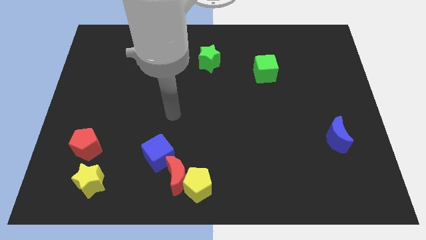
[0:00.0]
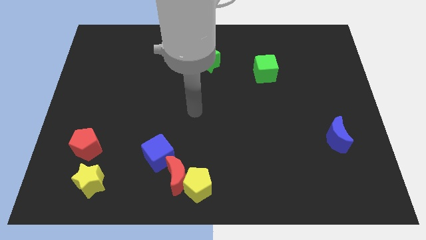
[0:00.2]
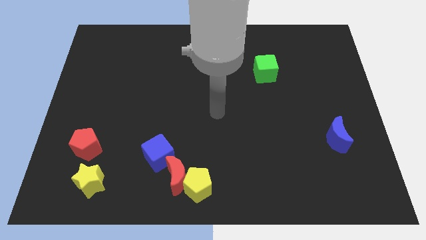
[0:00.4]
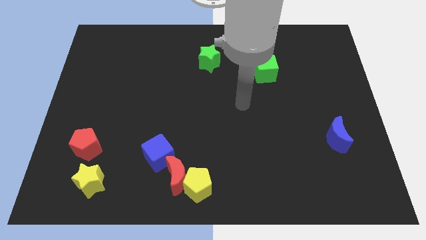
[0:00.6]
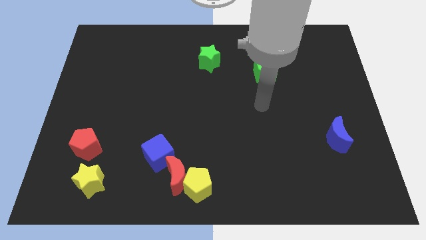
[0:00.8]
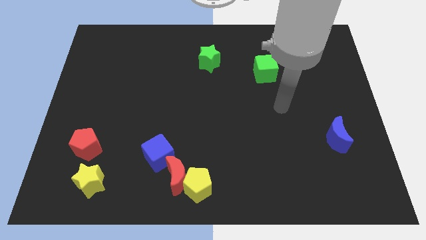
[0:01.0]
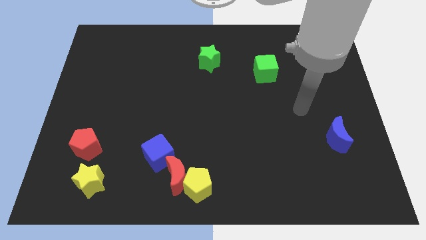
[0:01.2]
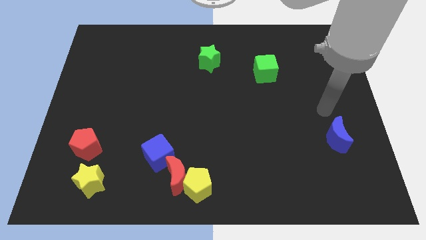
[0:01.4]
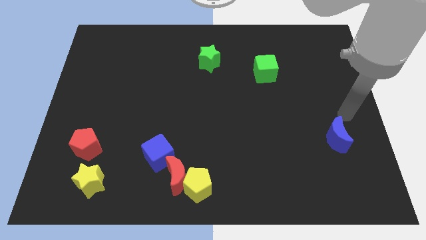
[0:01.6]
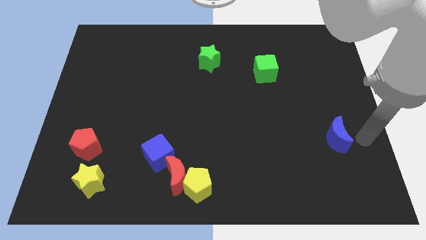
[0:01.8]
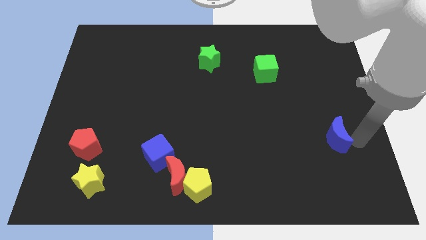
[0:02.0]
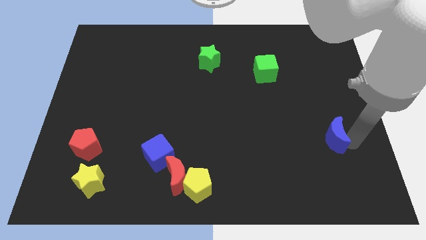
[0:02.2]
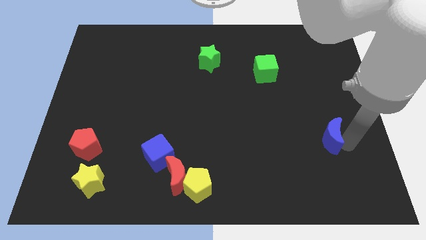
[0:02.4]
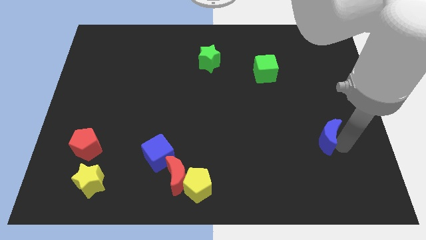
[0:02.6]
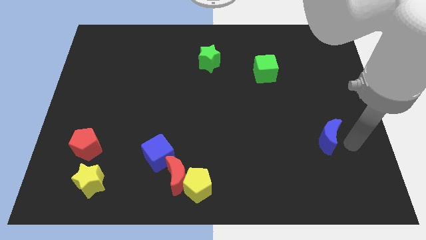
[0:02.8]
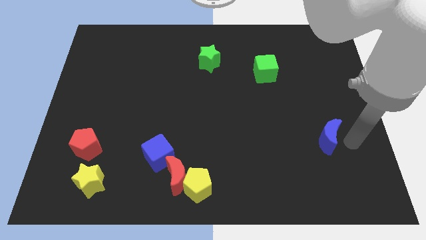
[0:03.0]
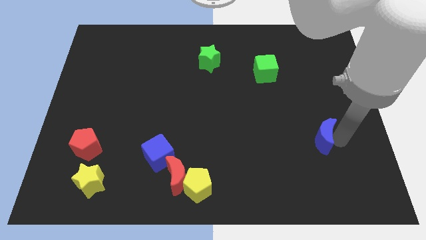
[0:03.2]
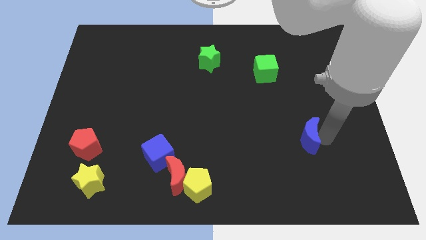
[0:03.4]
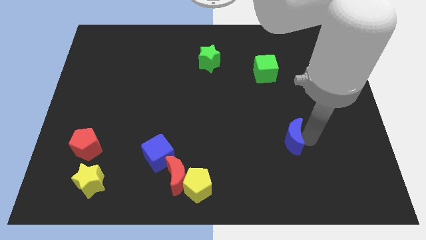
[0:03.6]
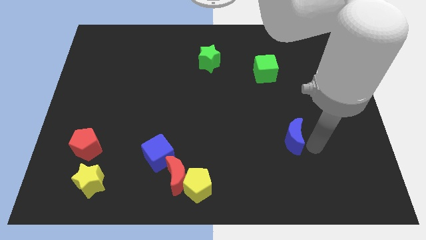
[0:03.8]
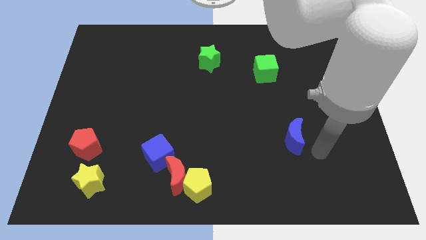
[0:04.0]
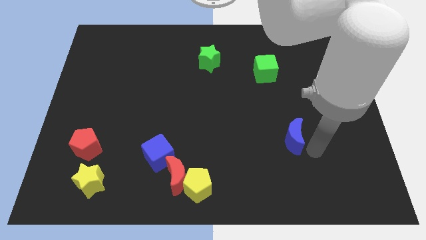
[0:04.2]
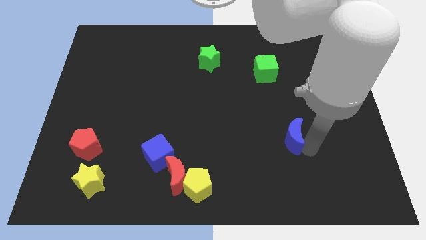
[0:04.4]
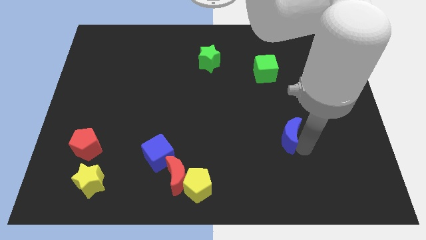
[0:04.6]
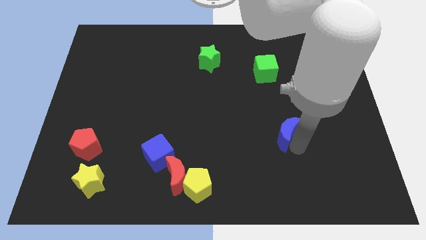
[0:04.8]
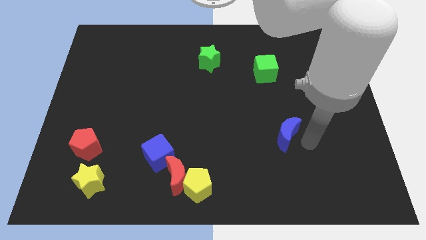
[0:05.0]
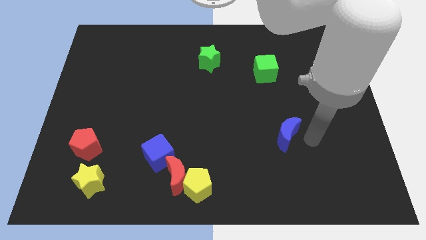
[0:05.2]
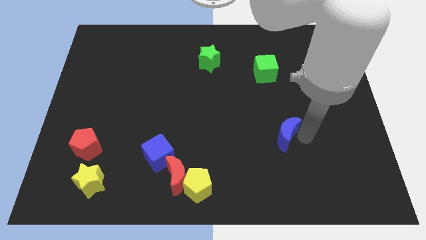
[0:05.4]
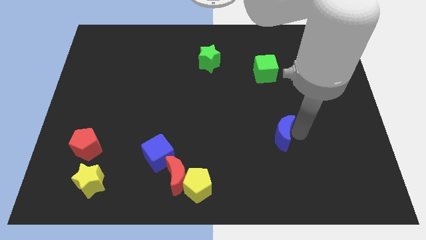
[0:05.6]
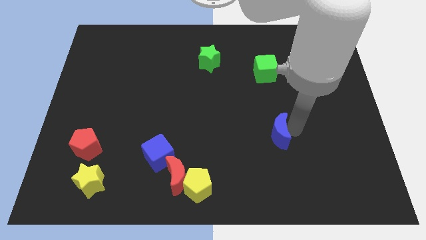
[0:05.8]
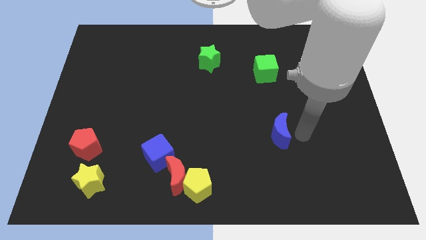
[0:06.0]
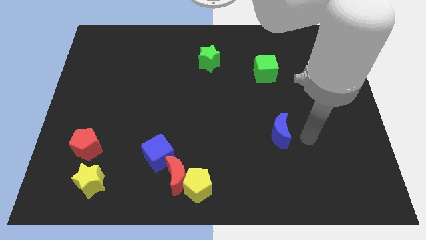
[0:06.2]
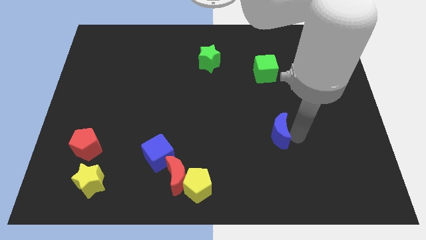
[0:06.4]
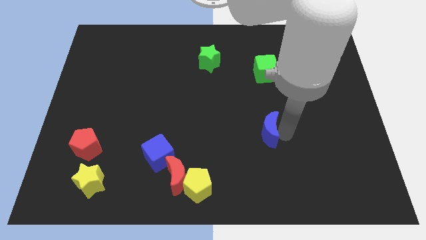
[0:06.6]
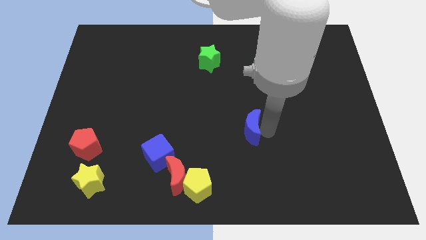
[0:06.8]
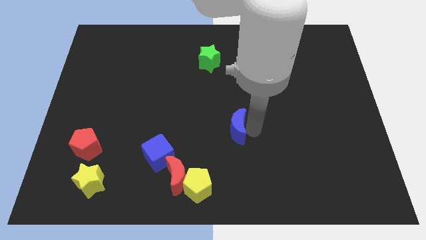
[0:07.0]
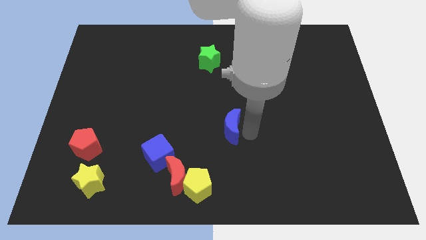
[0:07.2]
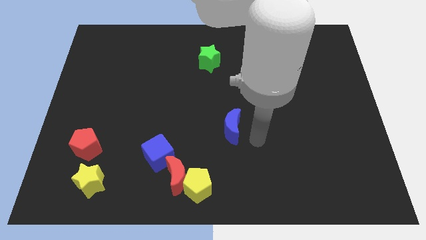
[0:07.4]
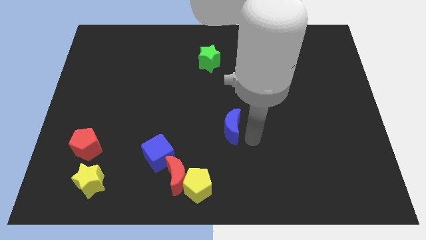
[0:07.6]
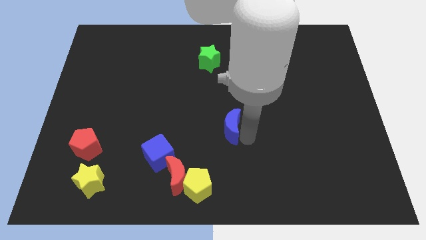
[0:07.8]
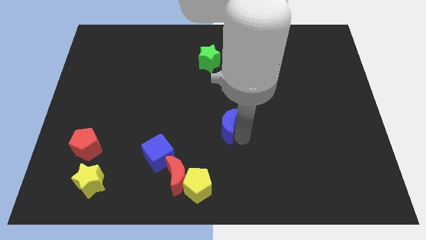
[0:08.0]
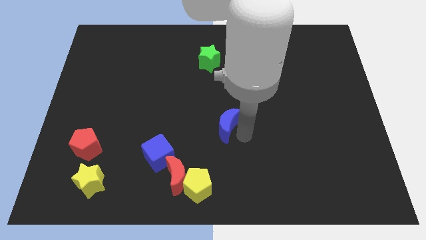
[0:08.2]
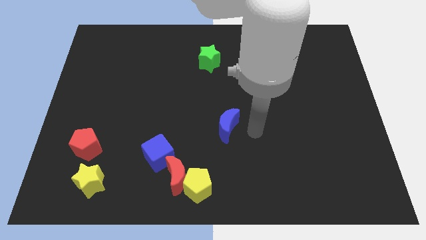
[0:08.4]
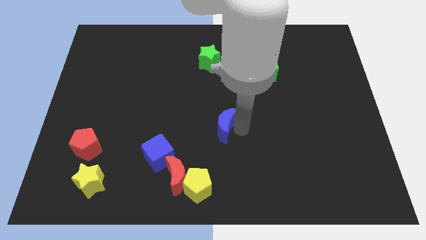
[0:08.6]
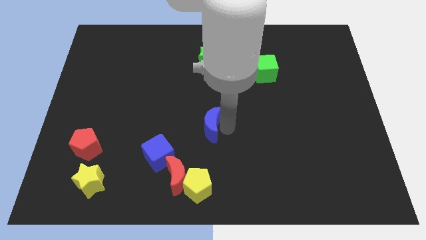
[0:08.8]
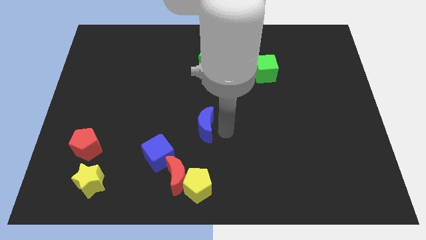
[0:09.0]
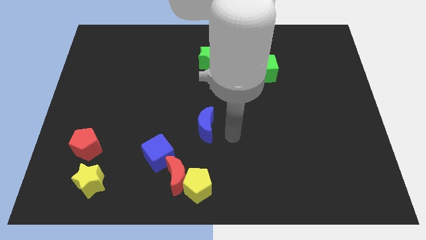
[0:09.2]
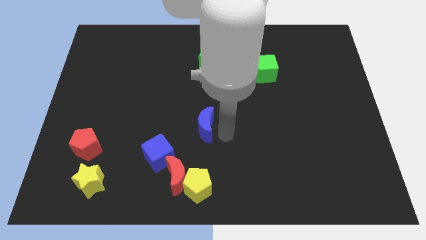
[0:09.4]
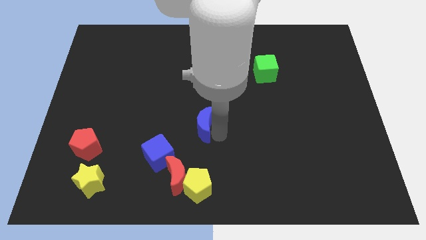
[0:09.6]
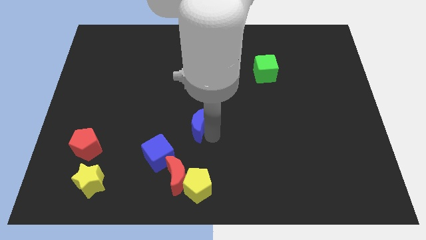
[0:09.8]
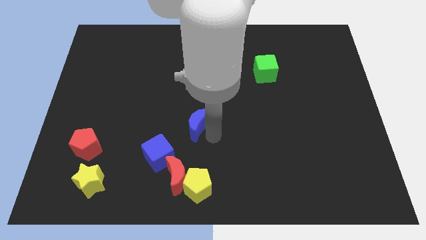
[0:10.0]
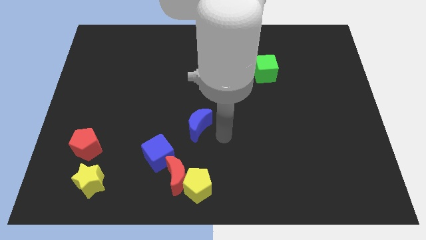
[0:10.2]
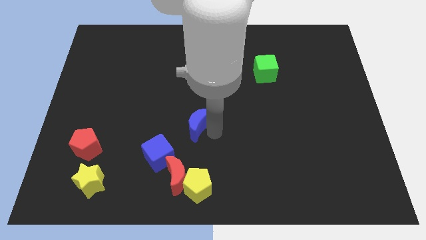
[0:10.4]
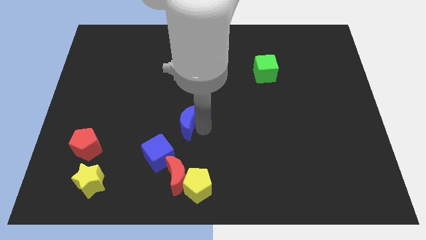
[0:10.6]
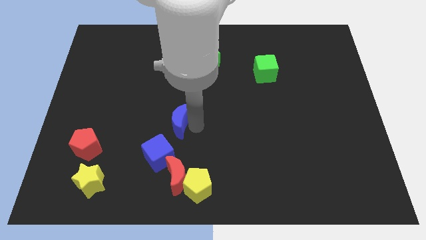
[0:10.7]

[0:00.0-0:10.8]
move the blue moon to the top side of the blue cube

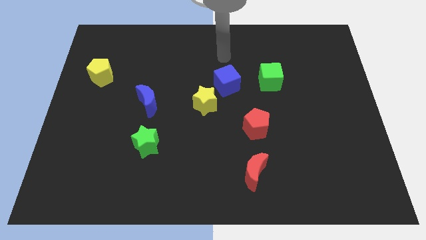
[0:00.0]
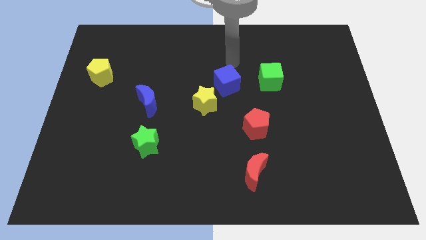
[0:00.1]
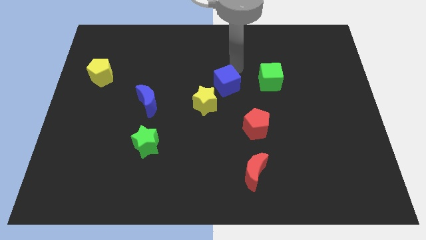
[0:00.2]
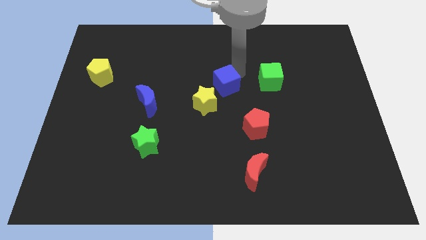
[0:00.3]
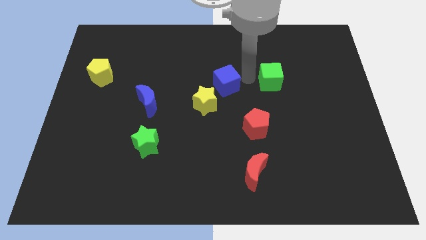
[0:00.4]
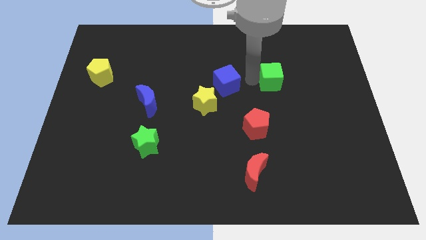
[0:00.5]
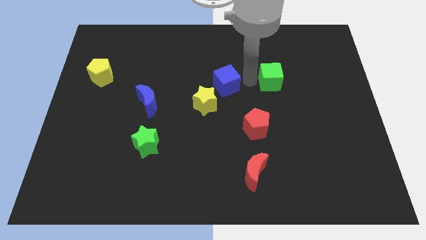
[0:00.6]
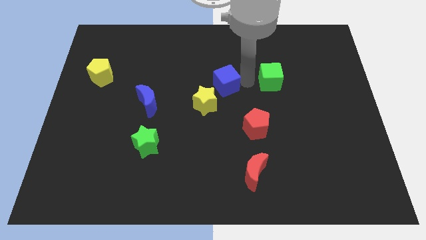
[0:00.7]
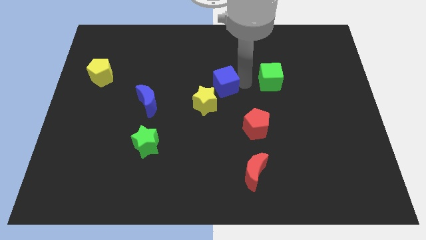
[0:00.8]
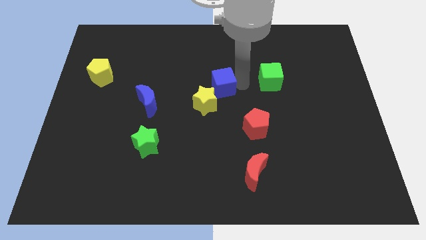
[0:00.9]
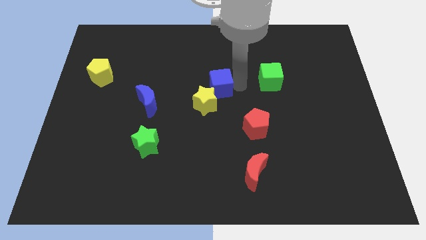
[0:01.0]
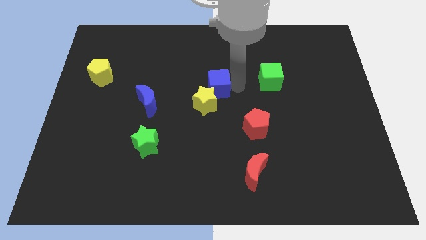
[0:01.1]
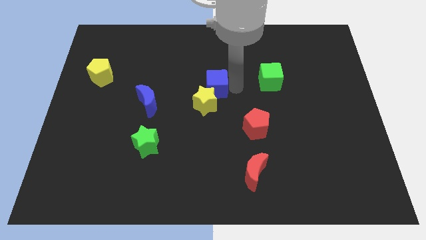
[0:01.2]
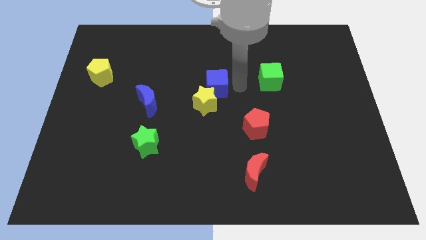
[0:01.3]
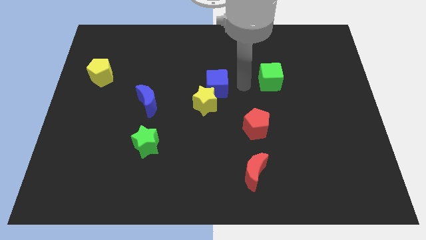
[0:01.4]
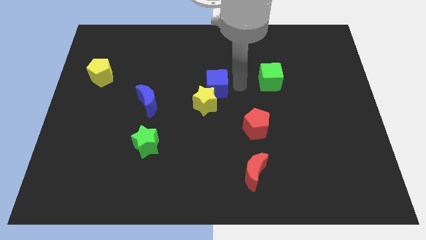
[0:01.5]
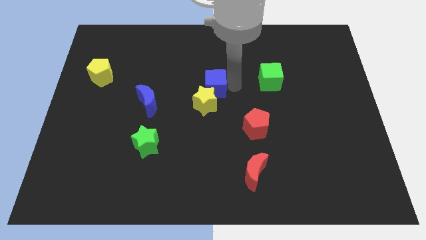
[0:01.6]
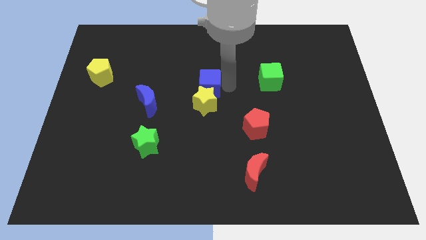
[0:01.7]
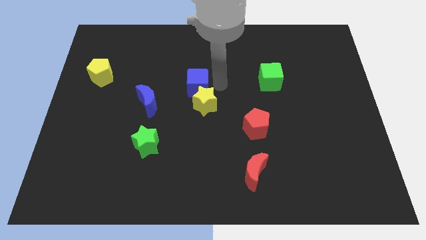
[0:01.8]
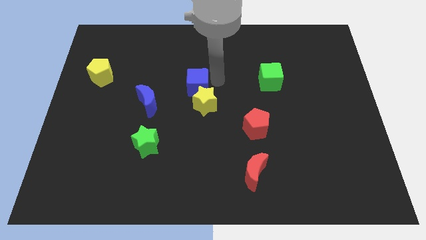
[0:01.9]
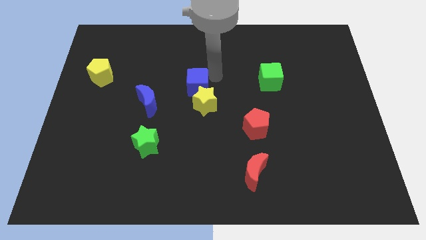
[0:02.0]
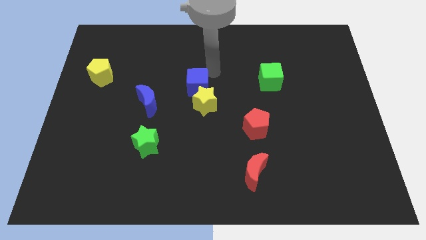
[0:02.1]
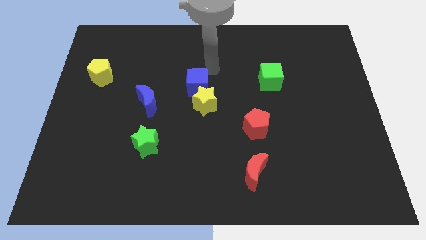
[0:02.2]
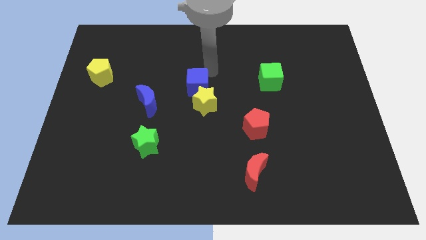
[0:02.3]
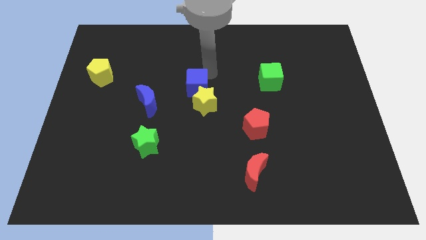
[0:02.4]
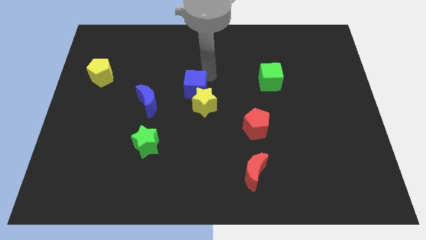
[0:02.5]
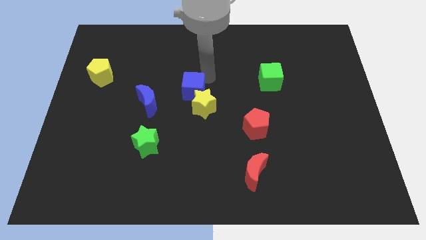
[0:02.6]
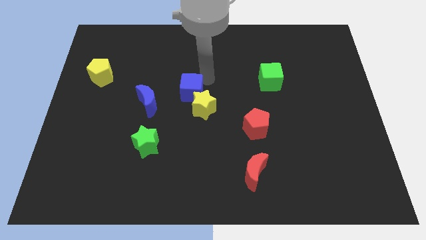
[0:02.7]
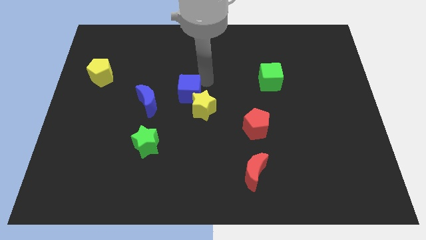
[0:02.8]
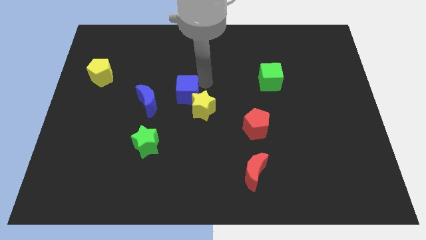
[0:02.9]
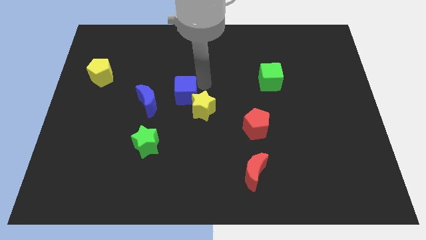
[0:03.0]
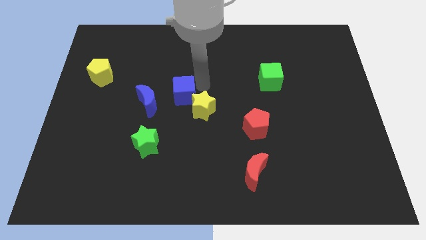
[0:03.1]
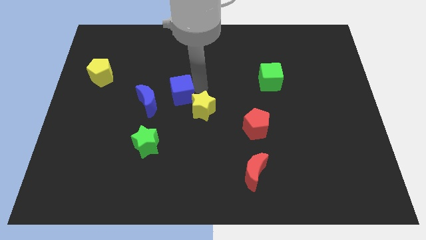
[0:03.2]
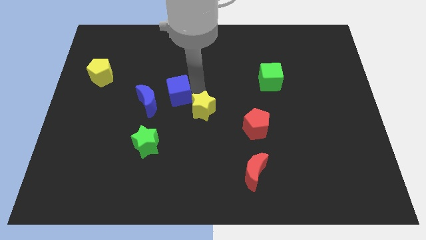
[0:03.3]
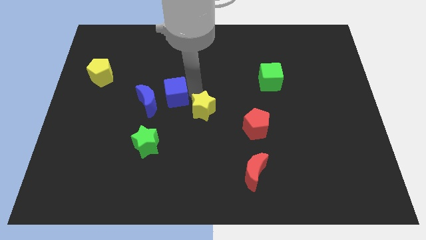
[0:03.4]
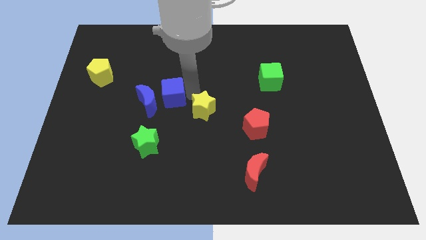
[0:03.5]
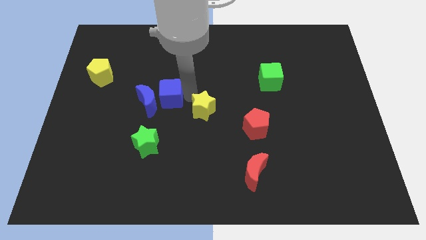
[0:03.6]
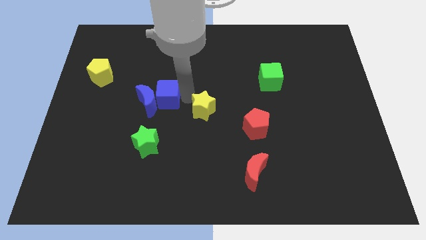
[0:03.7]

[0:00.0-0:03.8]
put the blue cube diagonally down and to the right of the blue moon
